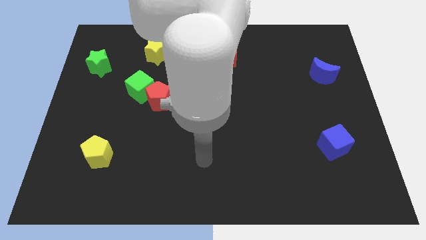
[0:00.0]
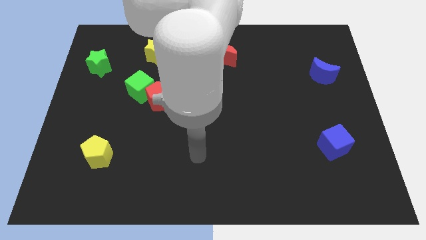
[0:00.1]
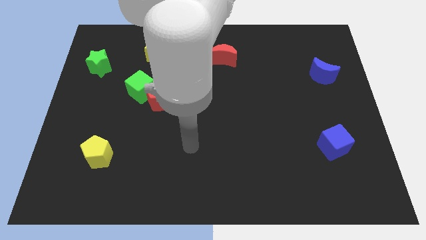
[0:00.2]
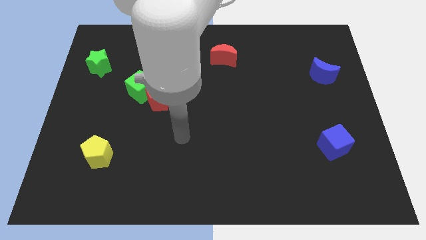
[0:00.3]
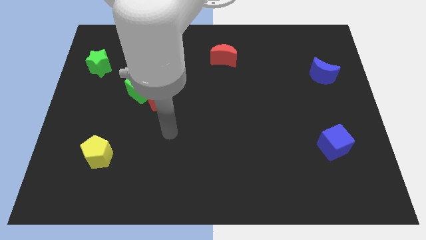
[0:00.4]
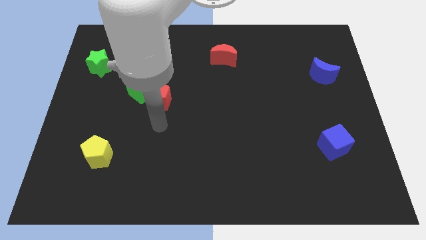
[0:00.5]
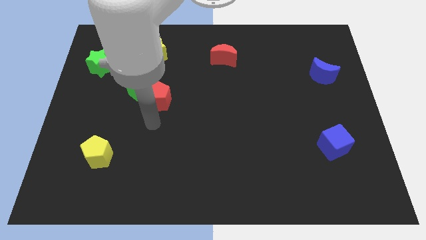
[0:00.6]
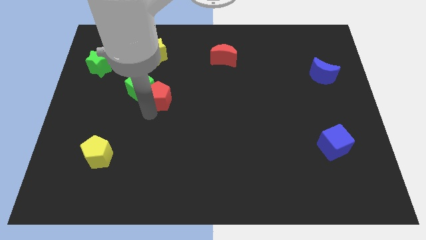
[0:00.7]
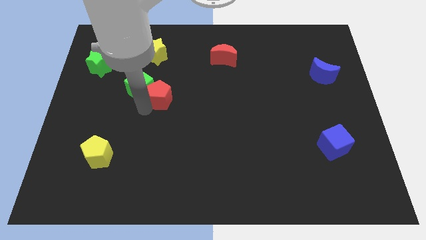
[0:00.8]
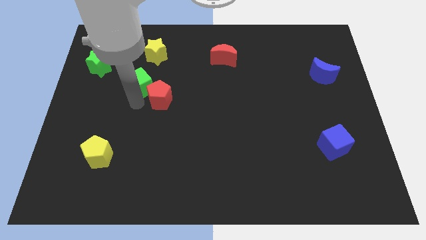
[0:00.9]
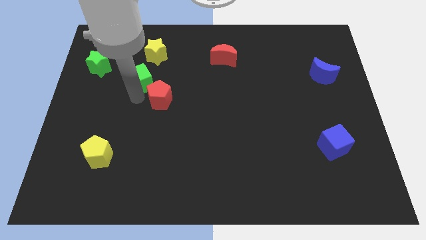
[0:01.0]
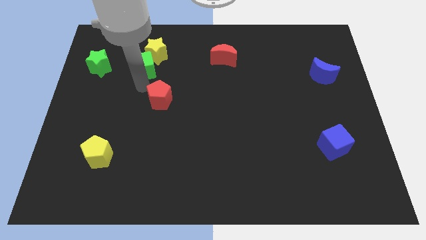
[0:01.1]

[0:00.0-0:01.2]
pull the red pentagon apart from the green cube

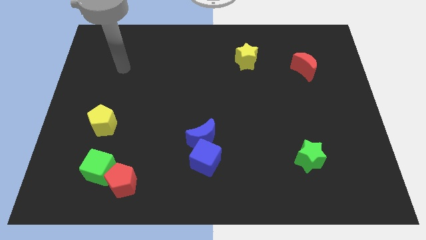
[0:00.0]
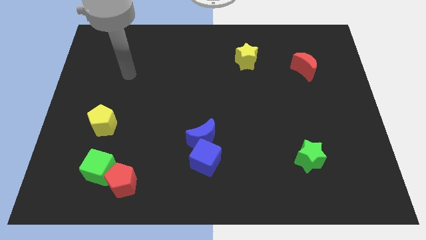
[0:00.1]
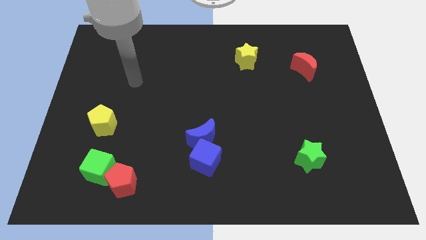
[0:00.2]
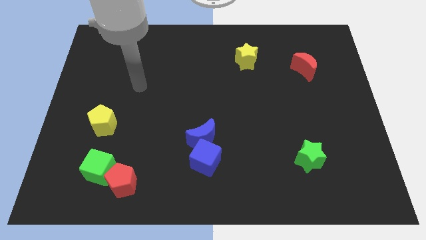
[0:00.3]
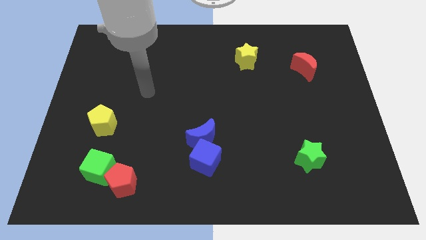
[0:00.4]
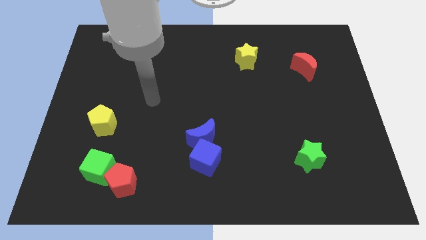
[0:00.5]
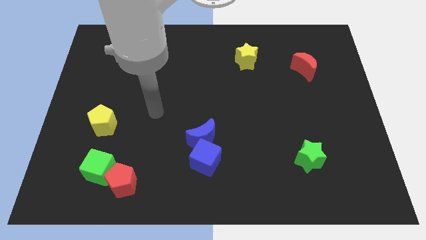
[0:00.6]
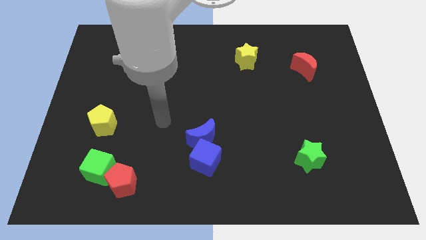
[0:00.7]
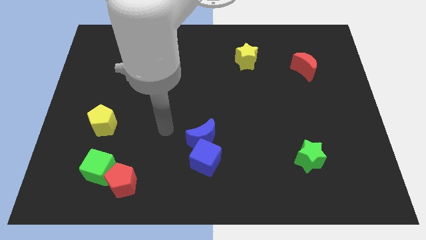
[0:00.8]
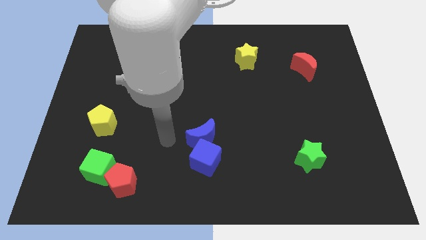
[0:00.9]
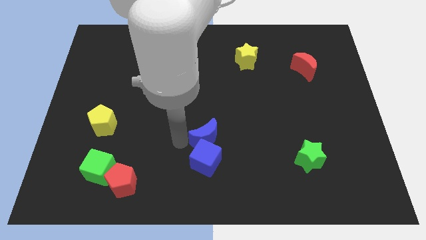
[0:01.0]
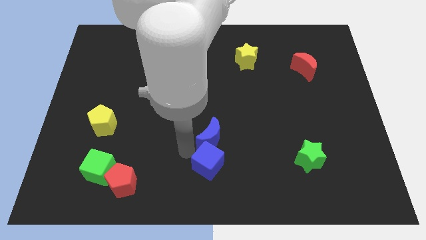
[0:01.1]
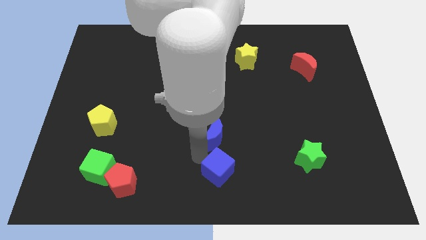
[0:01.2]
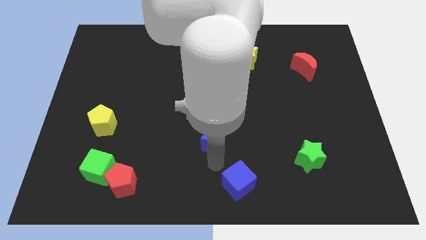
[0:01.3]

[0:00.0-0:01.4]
separate the blue moon from the blue cube

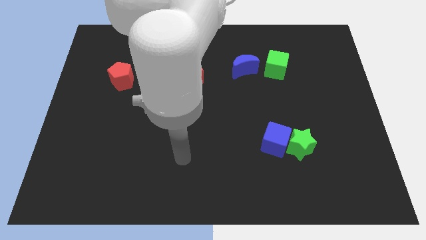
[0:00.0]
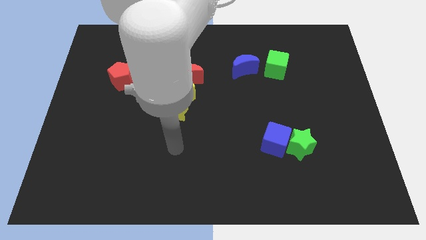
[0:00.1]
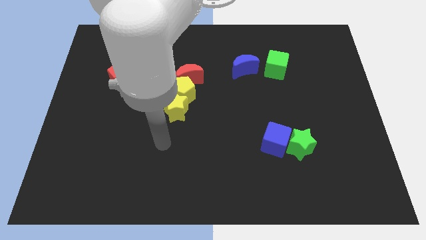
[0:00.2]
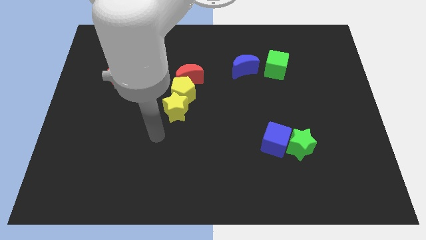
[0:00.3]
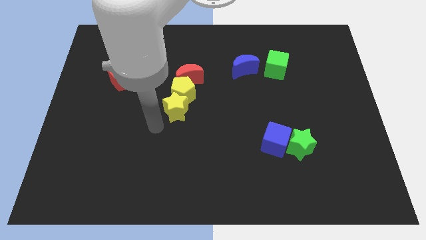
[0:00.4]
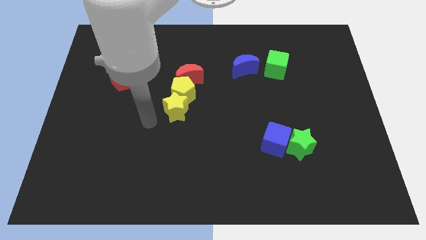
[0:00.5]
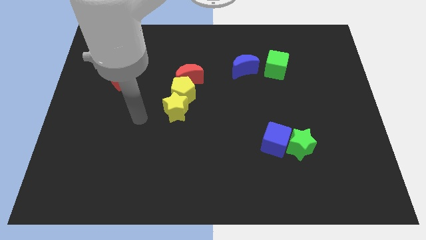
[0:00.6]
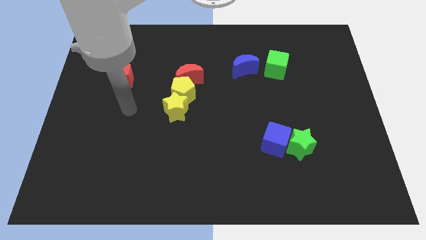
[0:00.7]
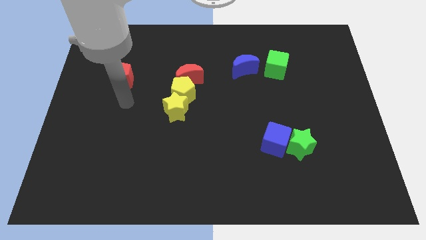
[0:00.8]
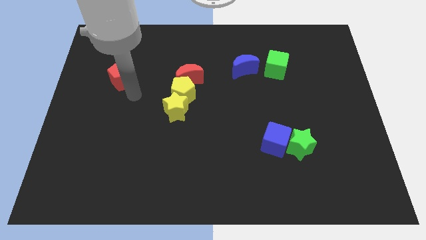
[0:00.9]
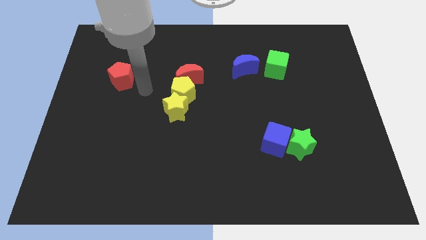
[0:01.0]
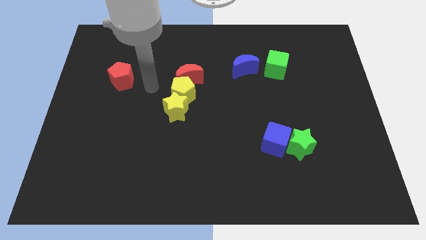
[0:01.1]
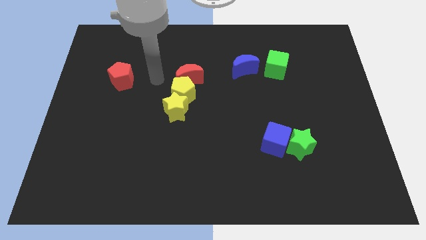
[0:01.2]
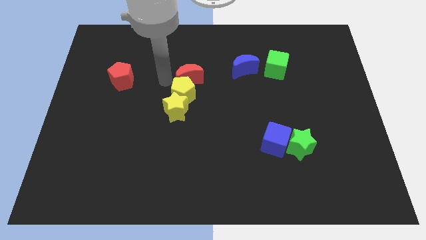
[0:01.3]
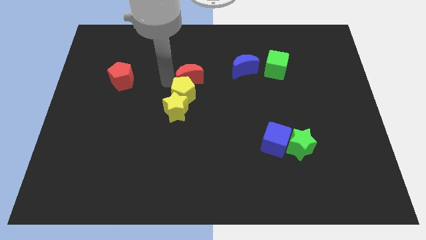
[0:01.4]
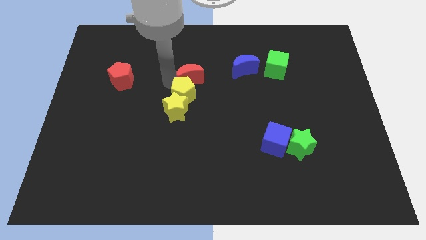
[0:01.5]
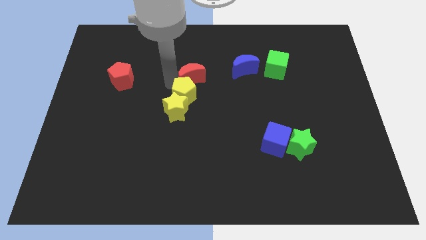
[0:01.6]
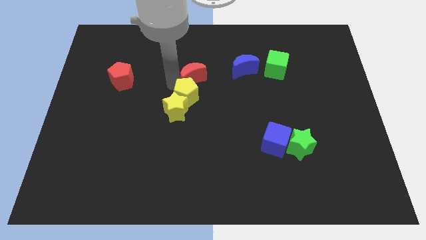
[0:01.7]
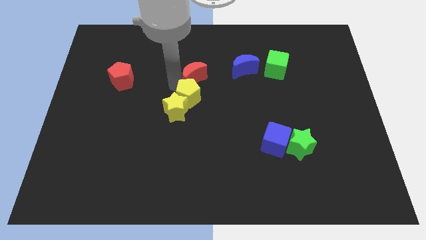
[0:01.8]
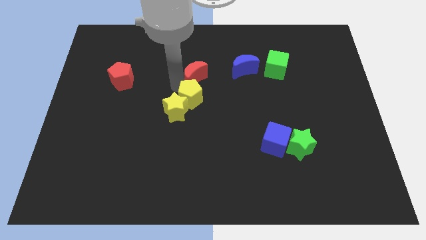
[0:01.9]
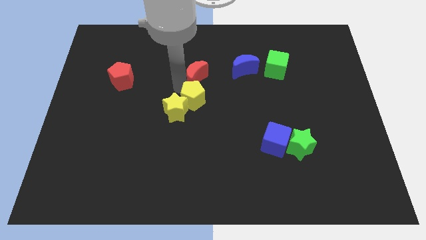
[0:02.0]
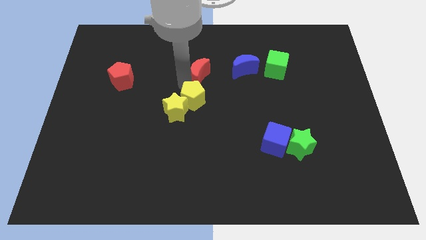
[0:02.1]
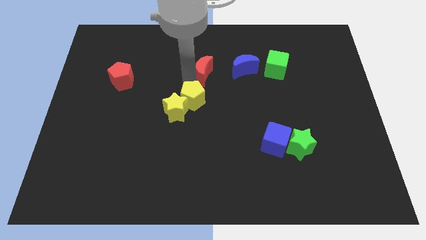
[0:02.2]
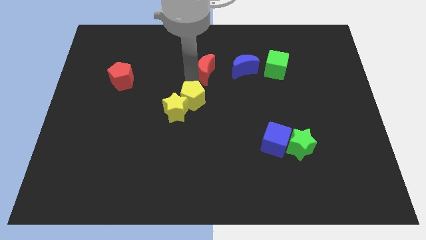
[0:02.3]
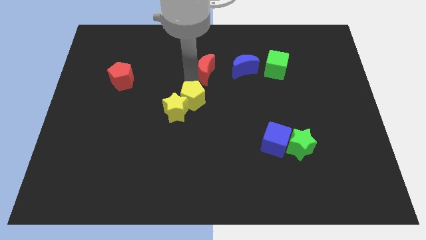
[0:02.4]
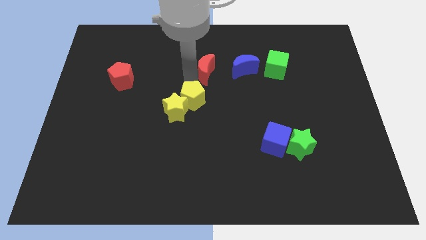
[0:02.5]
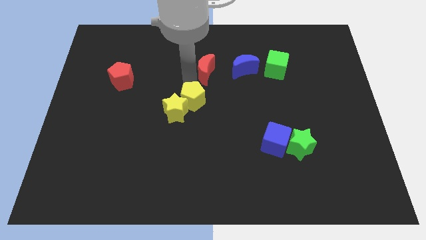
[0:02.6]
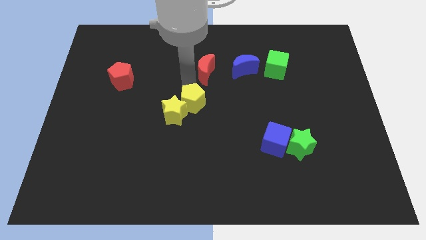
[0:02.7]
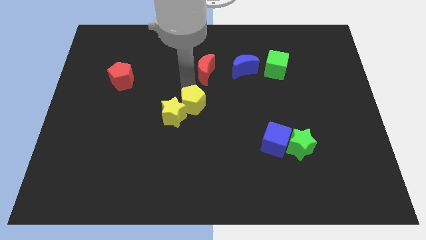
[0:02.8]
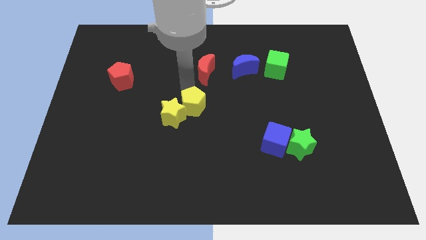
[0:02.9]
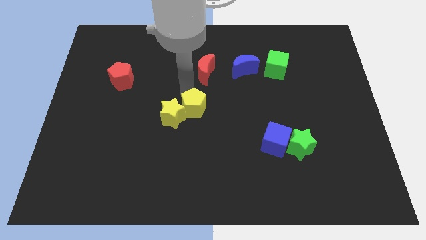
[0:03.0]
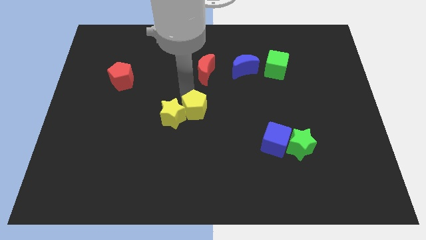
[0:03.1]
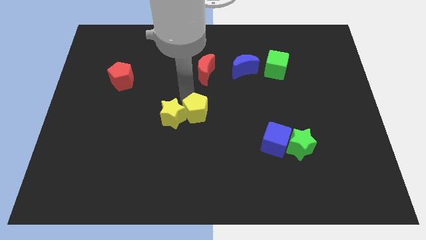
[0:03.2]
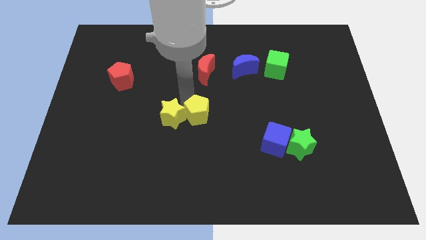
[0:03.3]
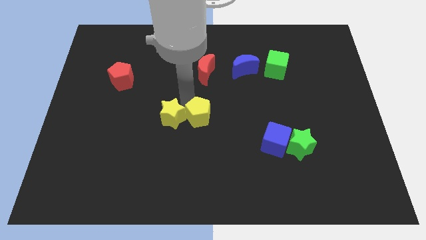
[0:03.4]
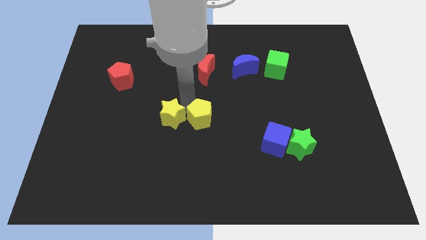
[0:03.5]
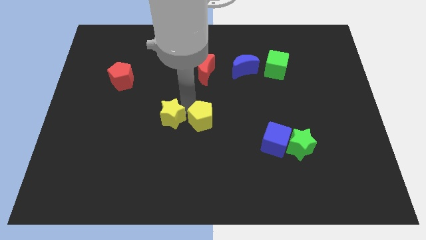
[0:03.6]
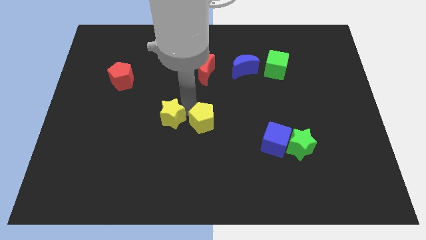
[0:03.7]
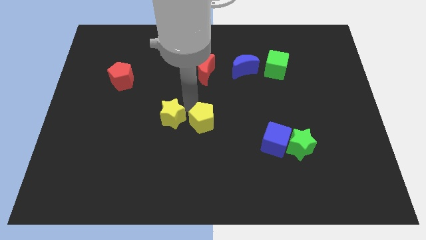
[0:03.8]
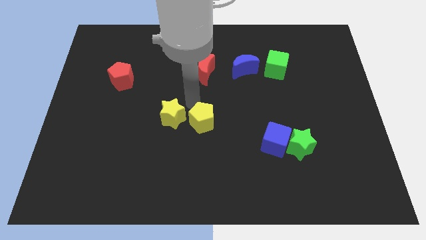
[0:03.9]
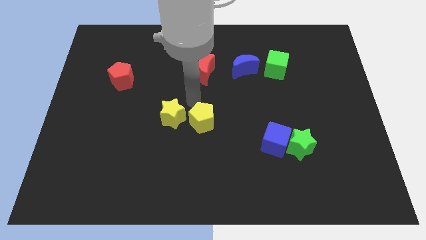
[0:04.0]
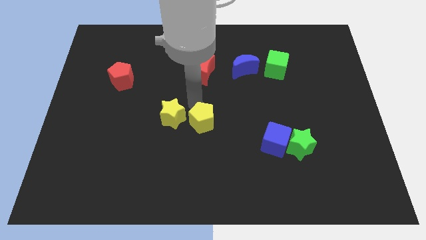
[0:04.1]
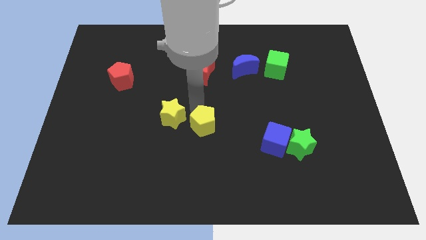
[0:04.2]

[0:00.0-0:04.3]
pull the yellow pentagon apart from the yellow star and red moon

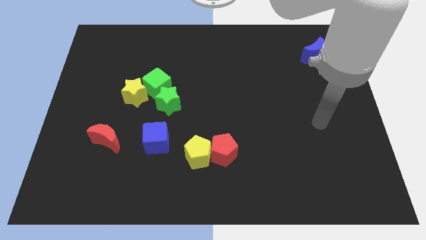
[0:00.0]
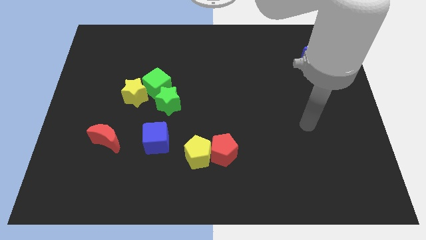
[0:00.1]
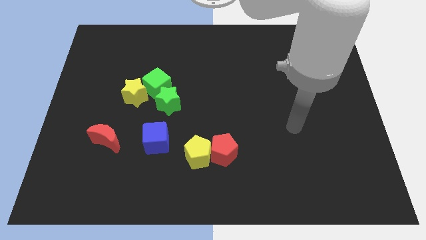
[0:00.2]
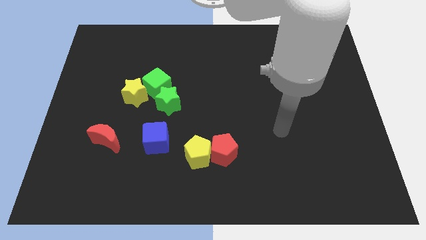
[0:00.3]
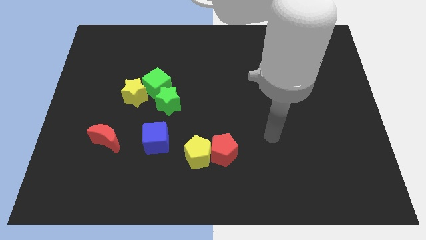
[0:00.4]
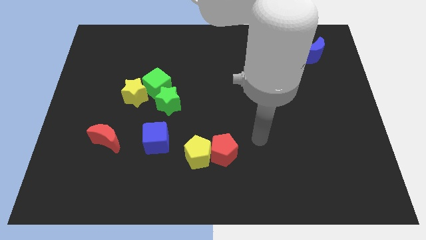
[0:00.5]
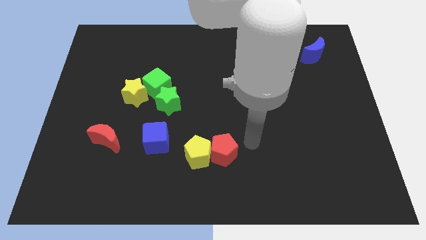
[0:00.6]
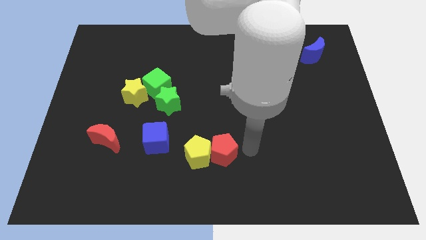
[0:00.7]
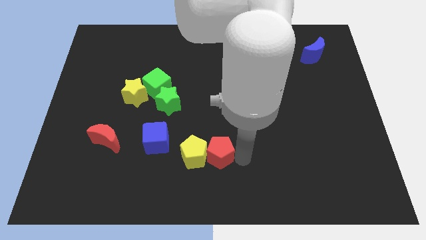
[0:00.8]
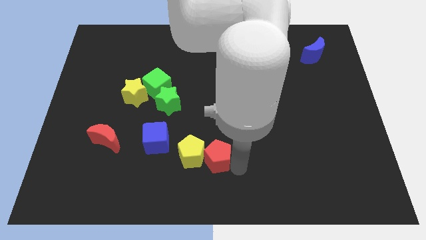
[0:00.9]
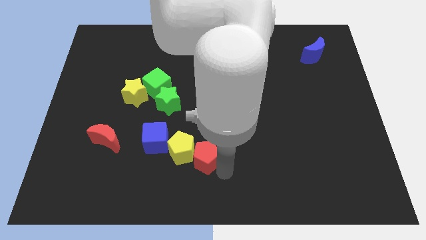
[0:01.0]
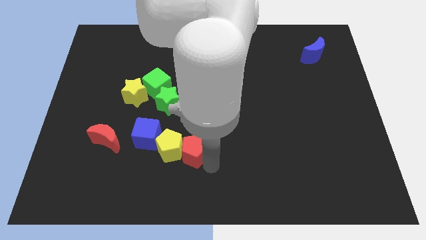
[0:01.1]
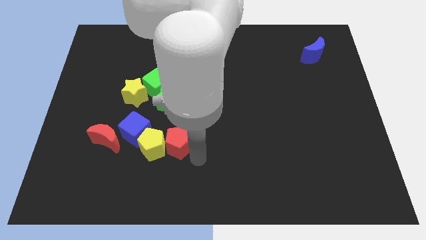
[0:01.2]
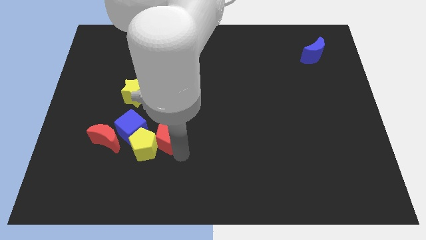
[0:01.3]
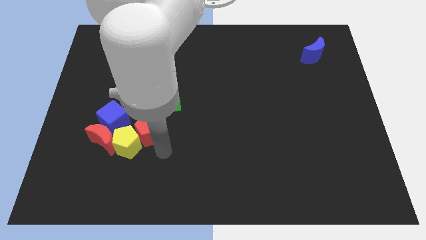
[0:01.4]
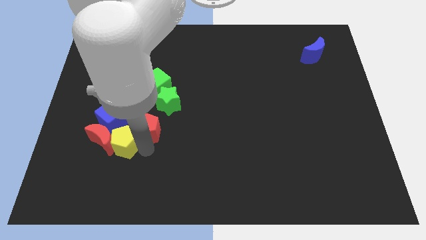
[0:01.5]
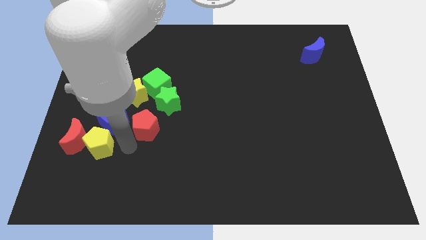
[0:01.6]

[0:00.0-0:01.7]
pull the red pentagon apart from the yellow pentagon

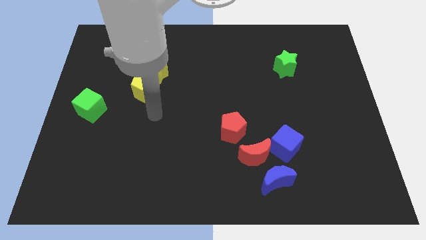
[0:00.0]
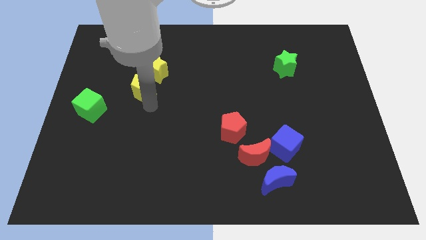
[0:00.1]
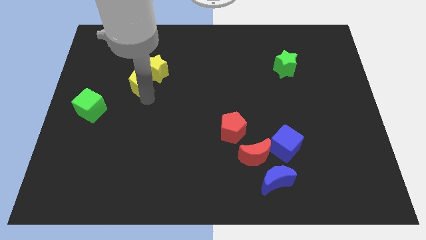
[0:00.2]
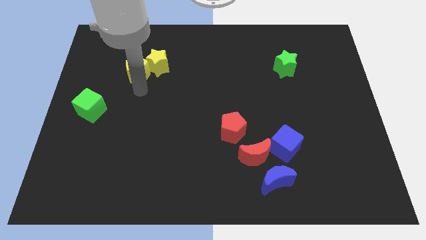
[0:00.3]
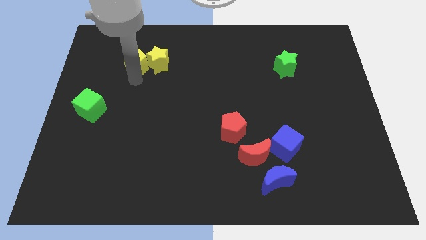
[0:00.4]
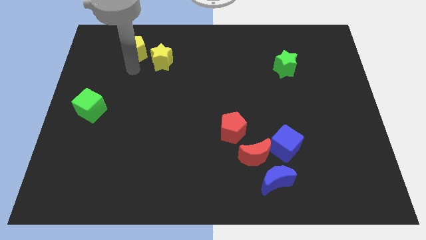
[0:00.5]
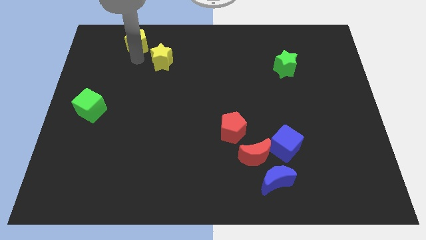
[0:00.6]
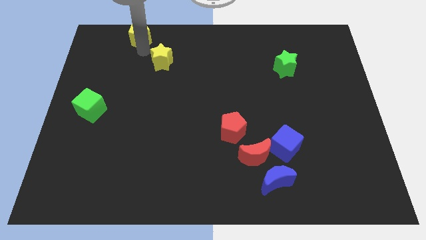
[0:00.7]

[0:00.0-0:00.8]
pull the yellow star apart from the yellow pentagon
